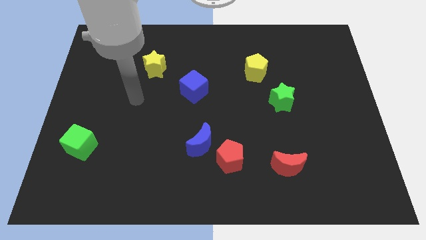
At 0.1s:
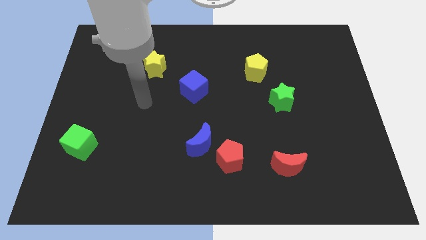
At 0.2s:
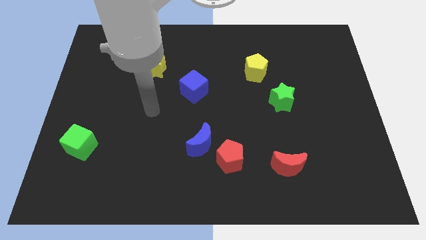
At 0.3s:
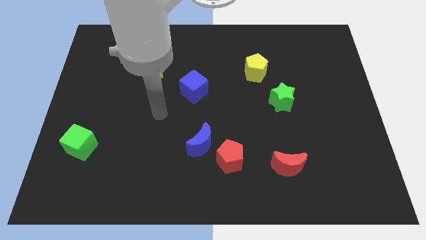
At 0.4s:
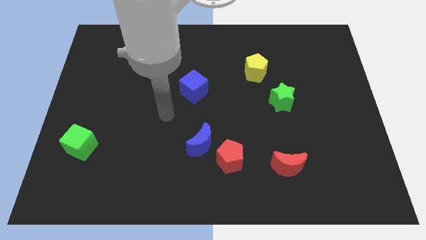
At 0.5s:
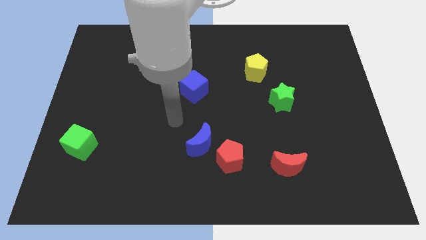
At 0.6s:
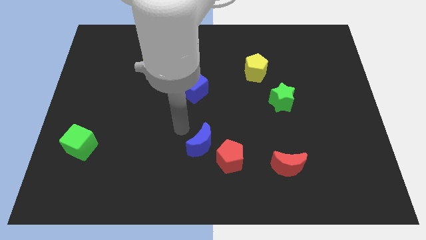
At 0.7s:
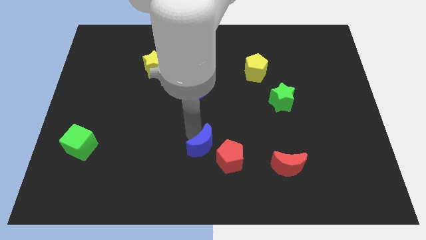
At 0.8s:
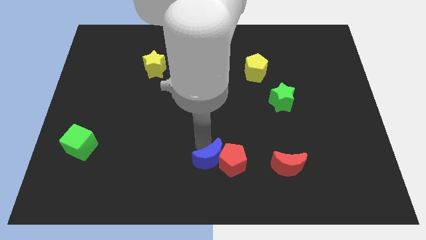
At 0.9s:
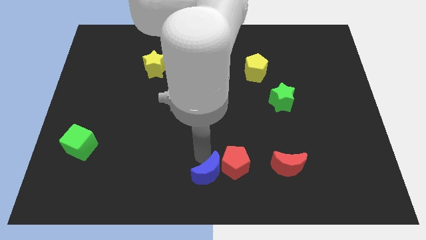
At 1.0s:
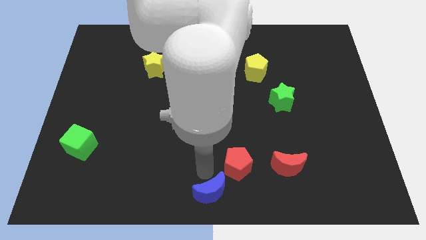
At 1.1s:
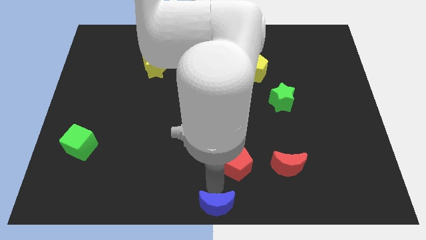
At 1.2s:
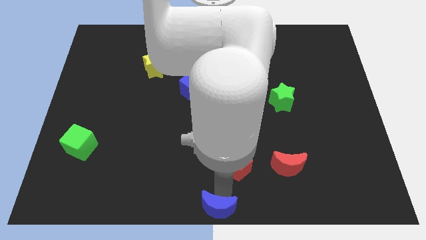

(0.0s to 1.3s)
separate the red pentagon from the blue moon

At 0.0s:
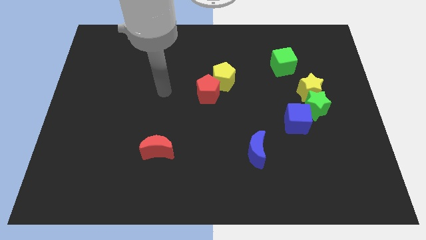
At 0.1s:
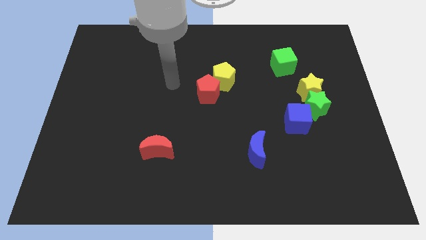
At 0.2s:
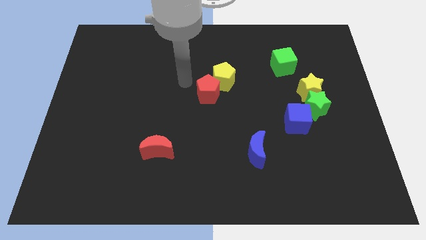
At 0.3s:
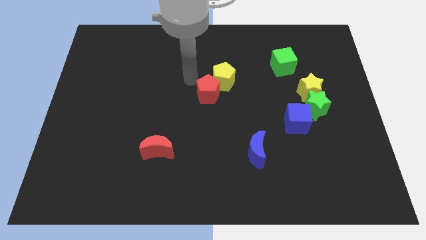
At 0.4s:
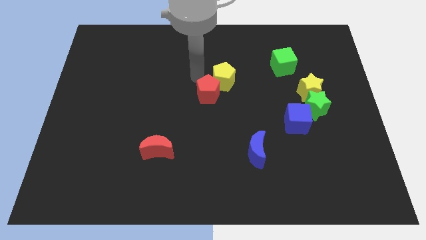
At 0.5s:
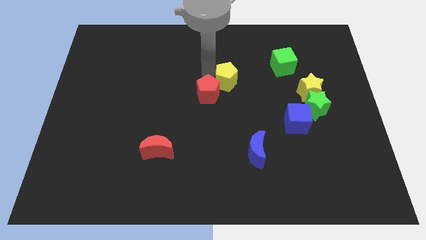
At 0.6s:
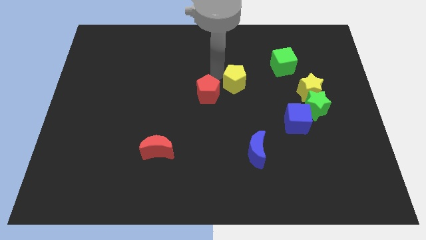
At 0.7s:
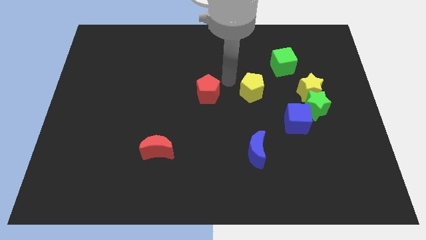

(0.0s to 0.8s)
move the red pentagon away from the yellow pentagon

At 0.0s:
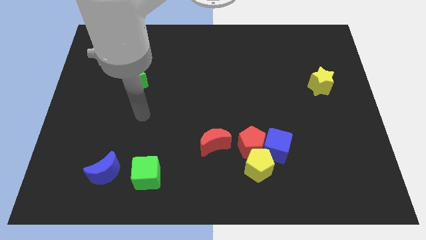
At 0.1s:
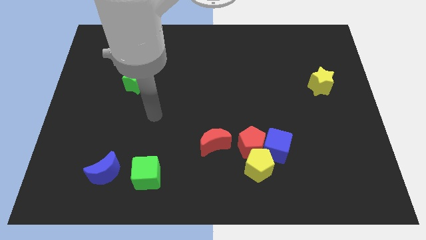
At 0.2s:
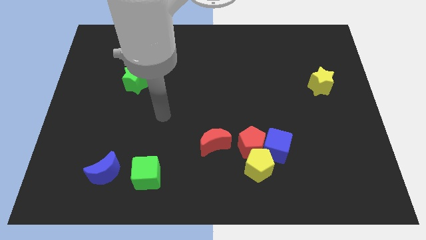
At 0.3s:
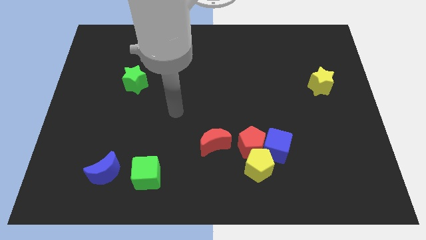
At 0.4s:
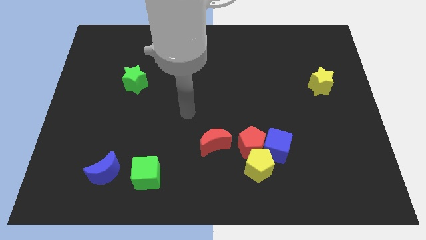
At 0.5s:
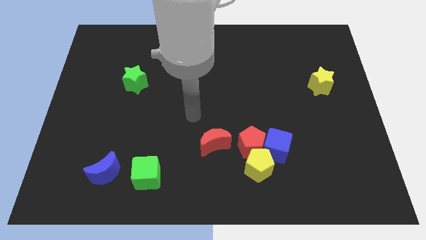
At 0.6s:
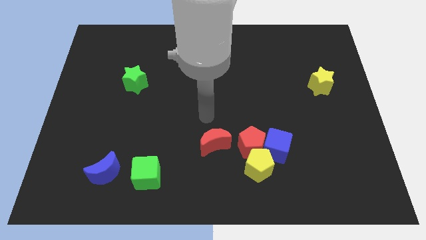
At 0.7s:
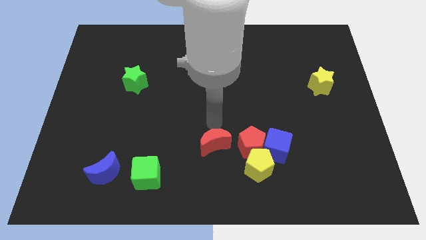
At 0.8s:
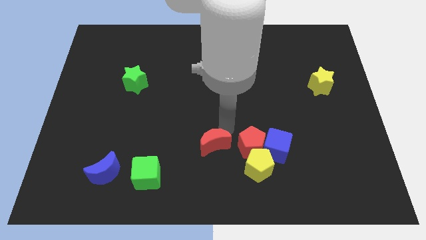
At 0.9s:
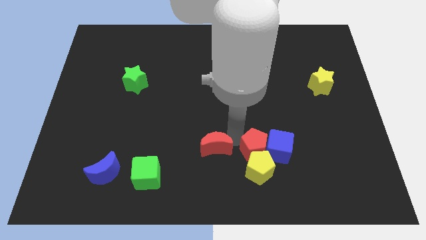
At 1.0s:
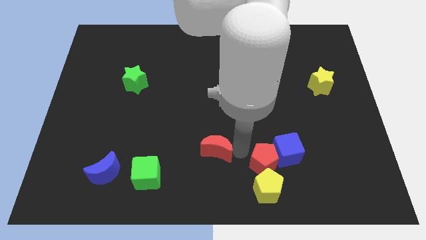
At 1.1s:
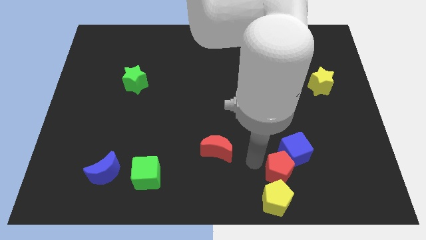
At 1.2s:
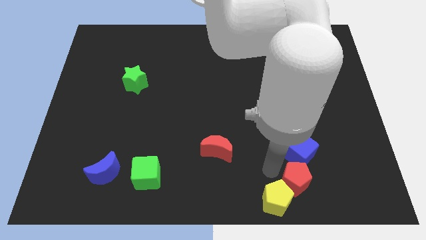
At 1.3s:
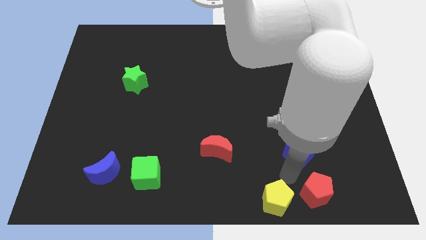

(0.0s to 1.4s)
separate the blue cube from the red pentagon and yellow pentagon

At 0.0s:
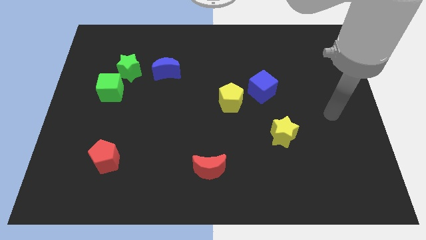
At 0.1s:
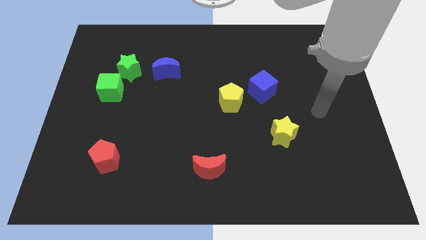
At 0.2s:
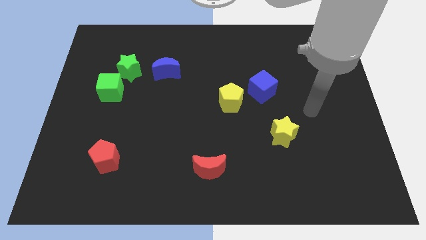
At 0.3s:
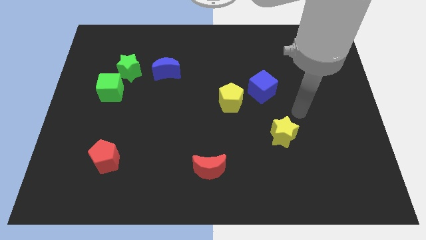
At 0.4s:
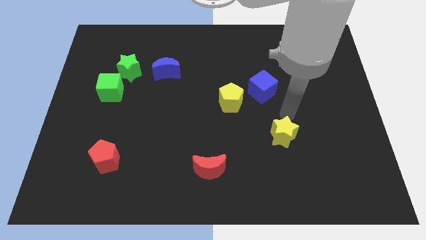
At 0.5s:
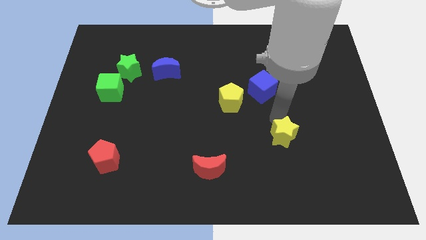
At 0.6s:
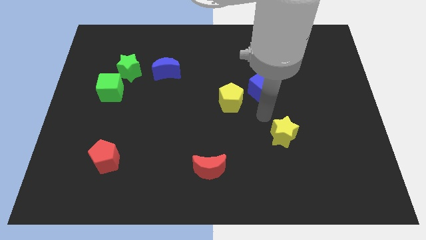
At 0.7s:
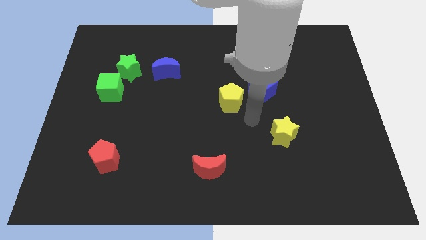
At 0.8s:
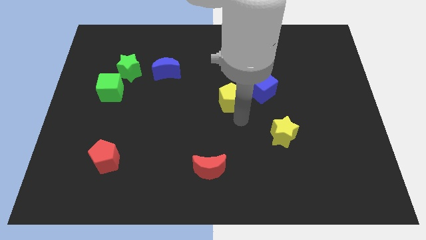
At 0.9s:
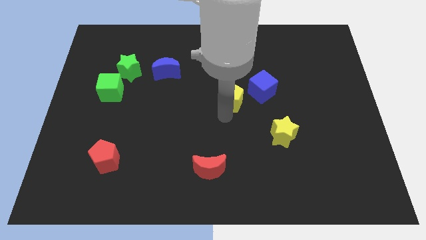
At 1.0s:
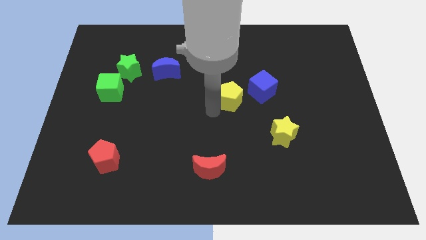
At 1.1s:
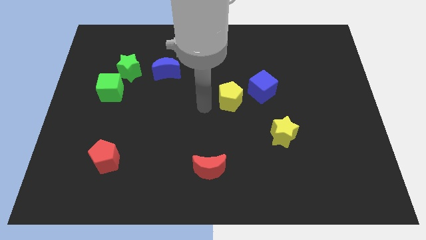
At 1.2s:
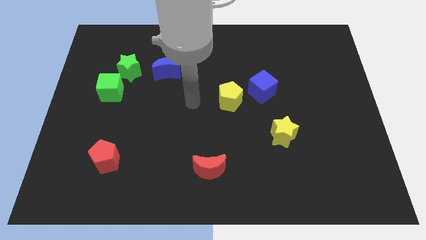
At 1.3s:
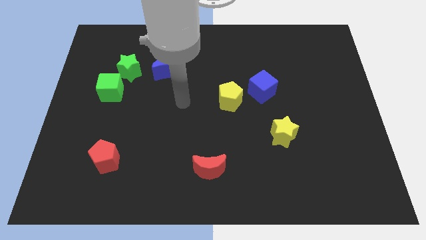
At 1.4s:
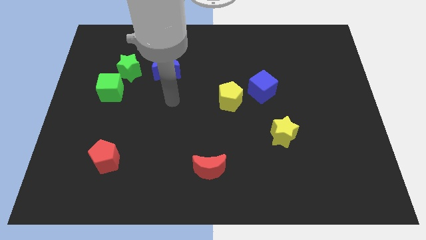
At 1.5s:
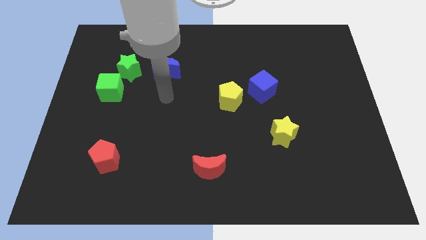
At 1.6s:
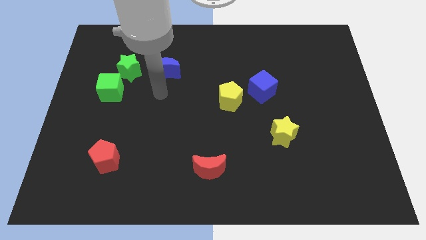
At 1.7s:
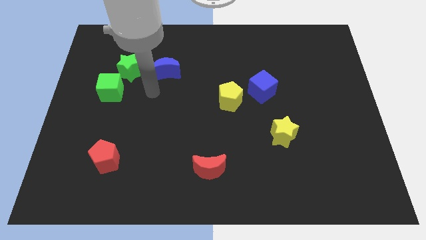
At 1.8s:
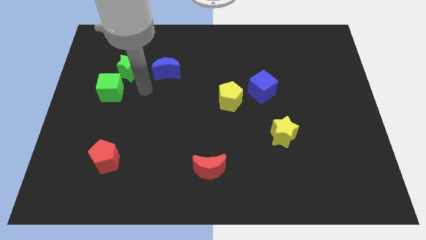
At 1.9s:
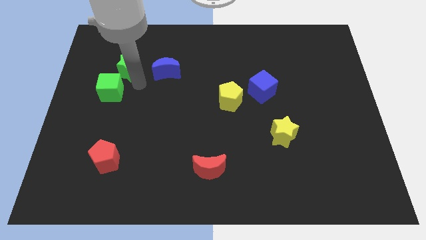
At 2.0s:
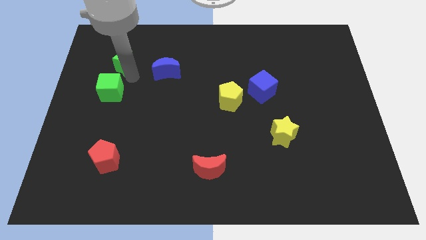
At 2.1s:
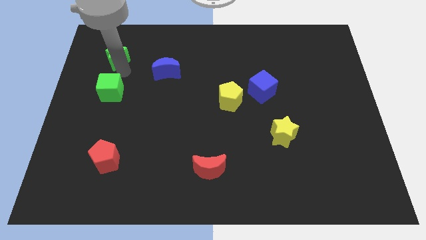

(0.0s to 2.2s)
separate the green cube from the green star

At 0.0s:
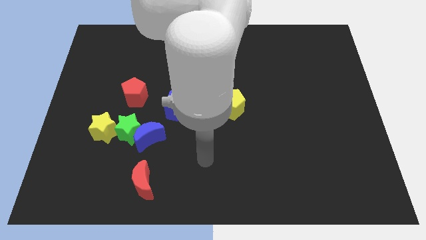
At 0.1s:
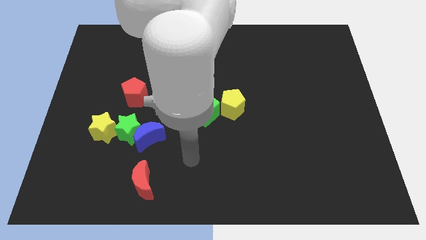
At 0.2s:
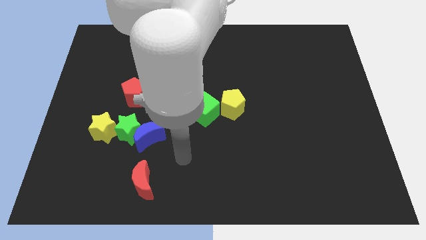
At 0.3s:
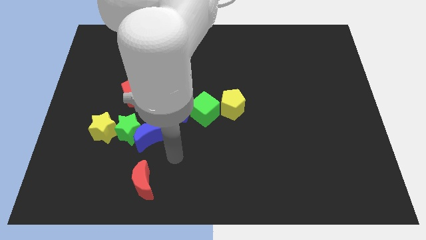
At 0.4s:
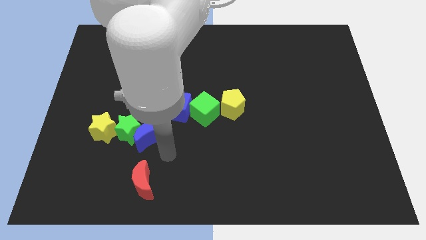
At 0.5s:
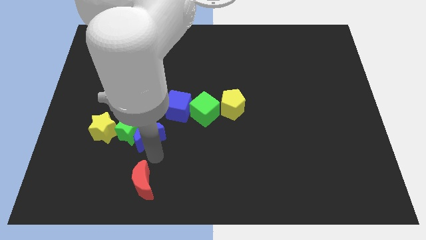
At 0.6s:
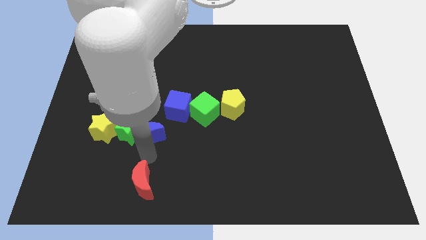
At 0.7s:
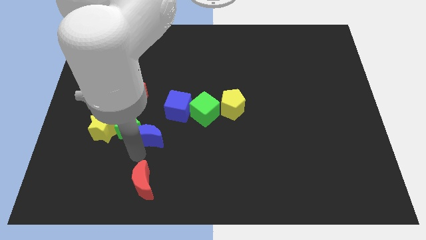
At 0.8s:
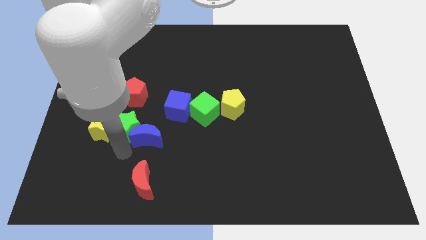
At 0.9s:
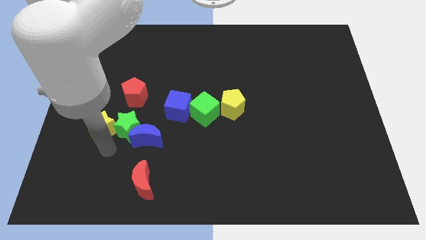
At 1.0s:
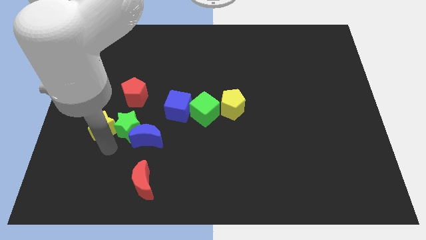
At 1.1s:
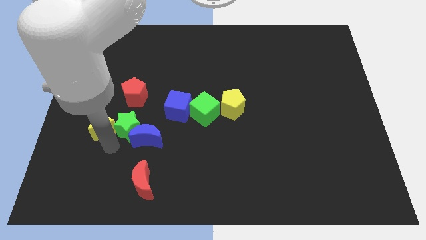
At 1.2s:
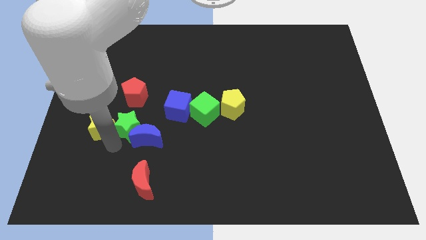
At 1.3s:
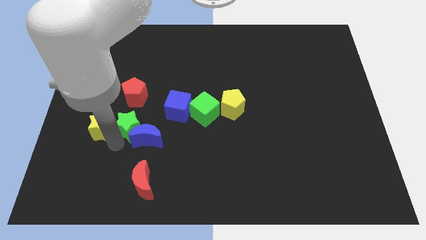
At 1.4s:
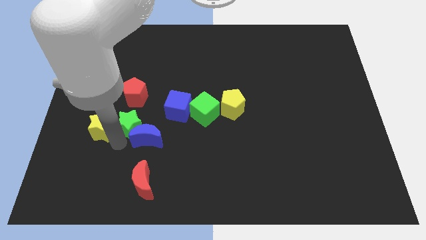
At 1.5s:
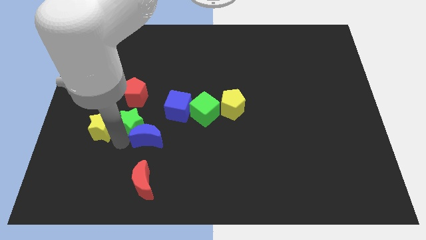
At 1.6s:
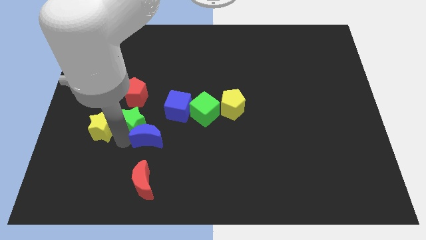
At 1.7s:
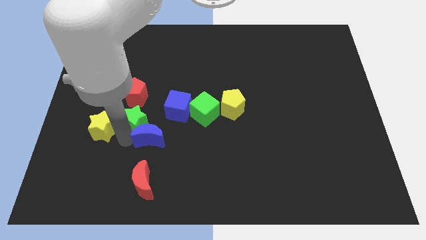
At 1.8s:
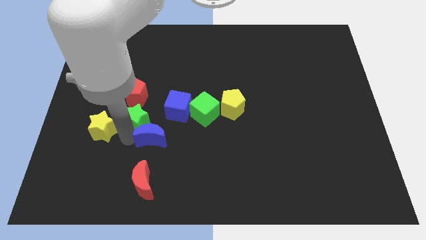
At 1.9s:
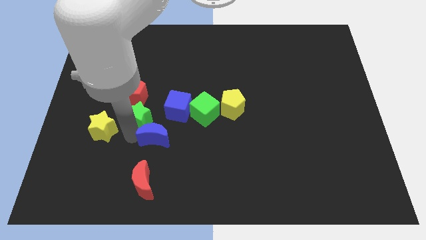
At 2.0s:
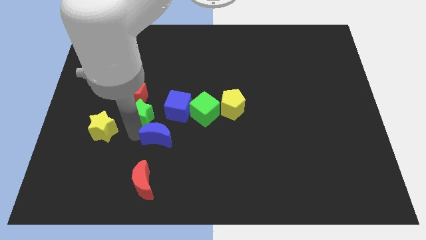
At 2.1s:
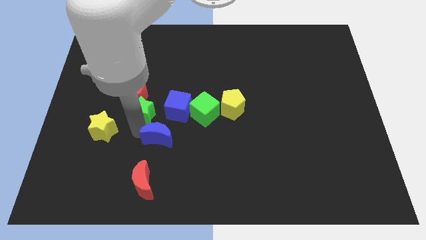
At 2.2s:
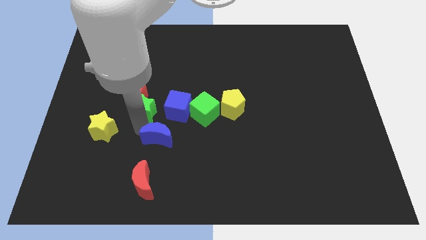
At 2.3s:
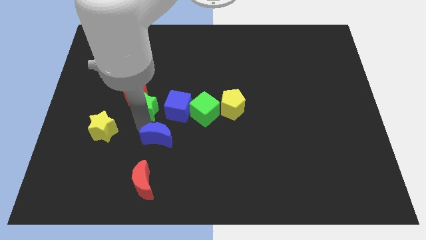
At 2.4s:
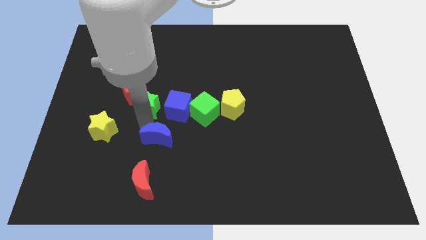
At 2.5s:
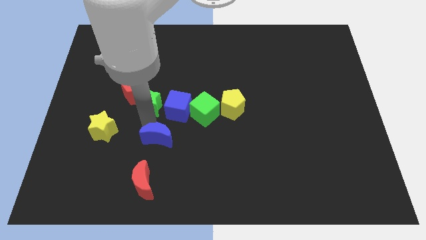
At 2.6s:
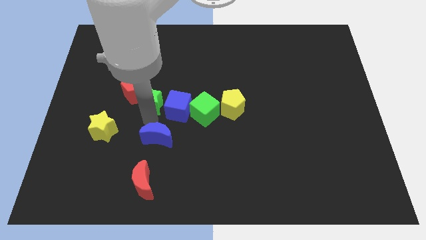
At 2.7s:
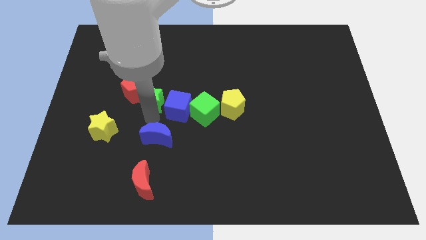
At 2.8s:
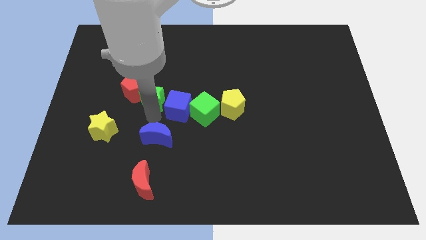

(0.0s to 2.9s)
pull the green star apart from the blue moon and yellow star

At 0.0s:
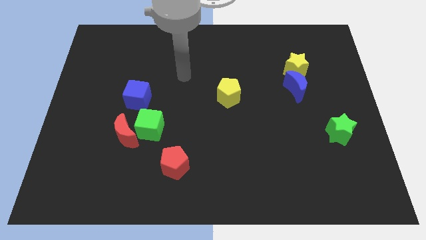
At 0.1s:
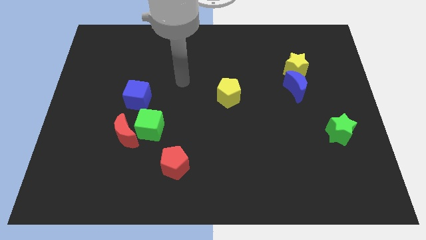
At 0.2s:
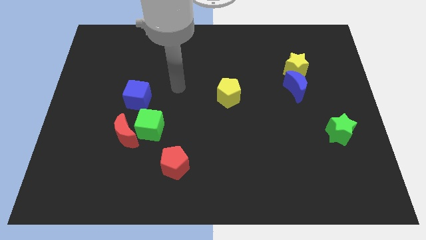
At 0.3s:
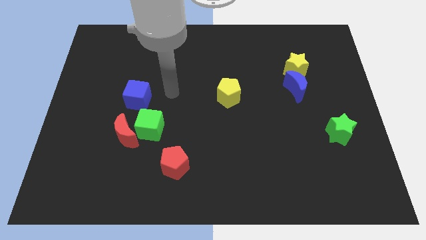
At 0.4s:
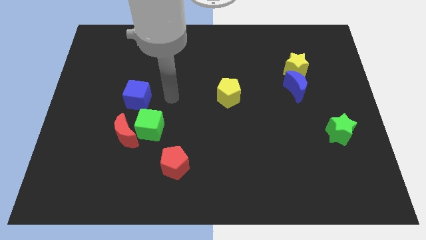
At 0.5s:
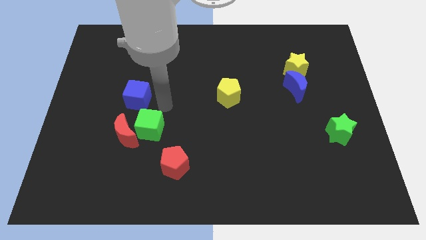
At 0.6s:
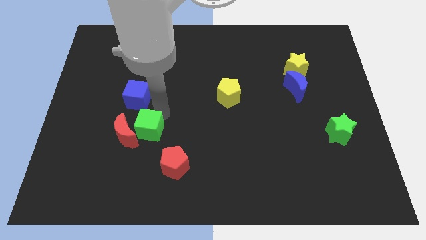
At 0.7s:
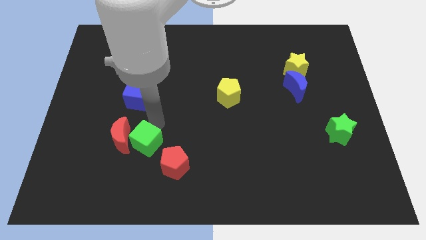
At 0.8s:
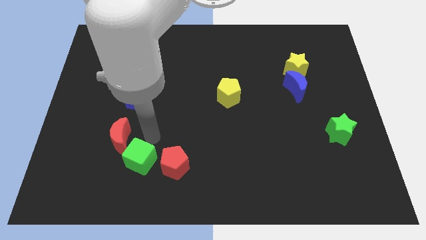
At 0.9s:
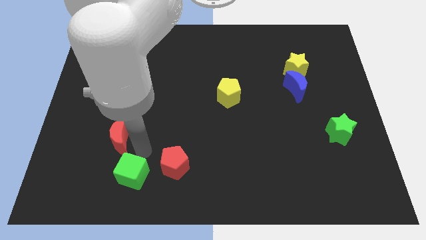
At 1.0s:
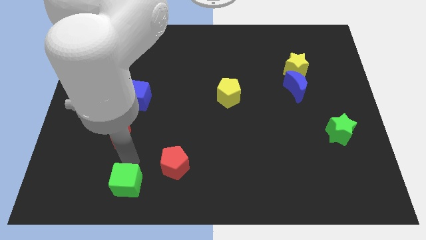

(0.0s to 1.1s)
pull the red moon apart from the green cube
